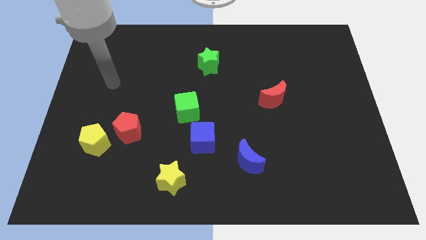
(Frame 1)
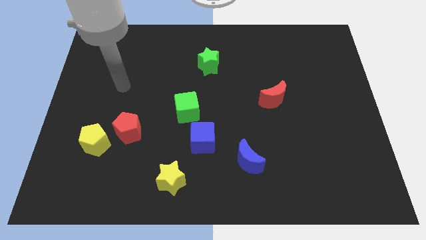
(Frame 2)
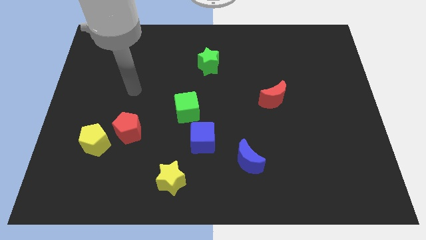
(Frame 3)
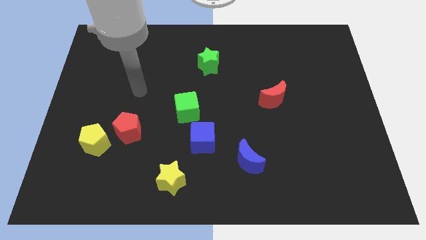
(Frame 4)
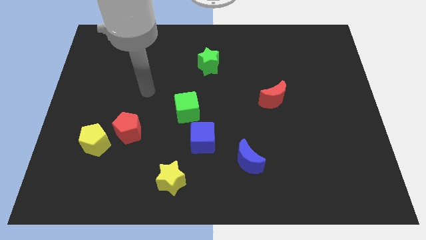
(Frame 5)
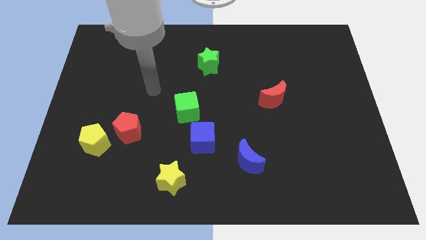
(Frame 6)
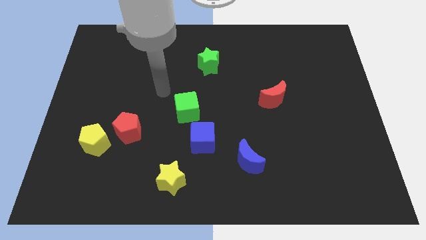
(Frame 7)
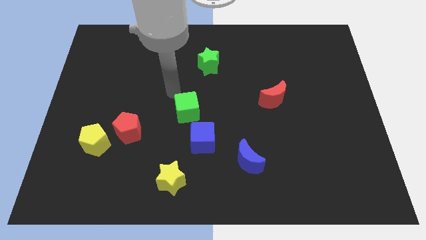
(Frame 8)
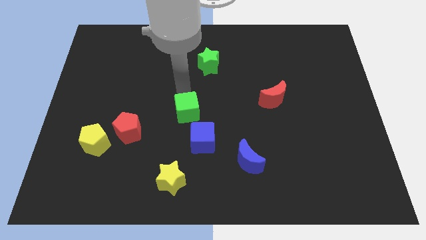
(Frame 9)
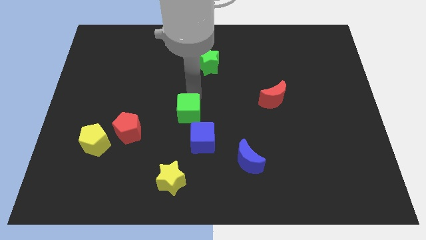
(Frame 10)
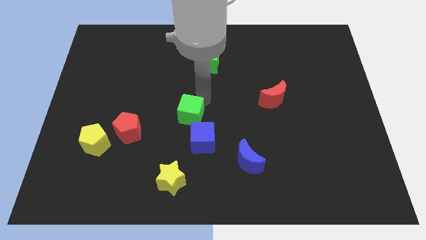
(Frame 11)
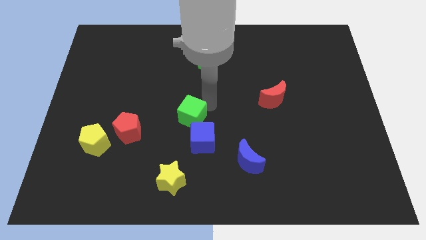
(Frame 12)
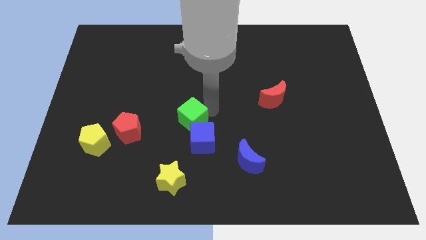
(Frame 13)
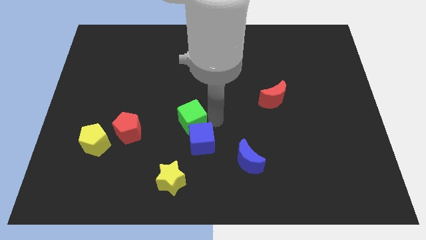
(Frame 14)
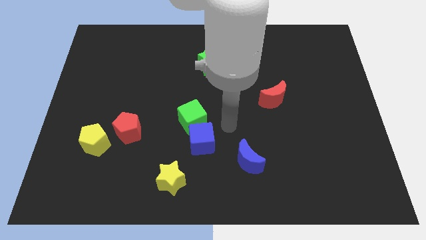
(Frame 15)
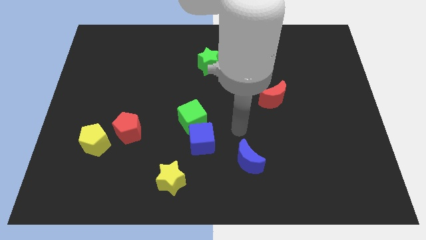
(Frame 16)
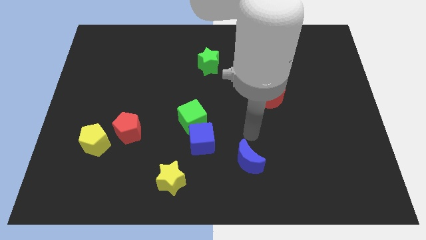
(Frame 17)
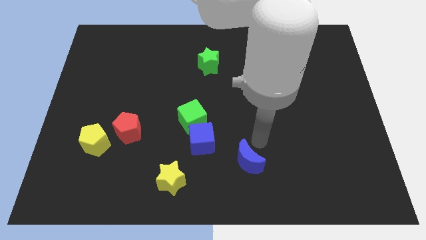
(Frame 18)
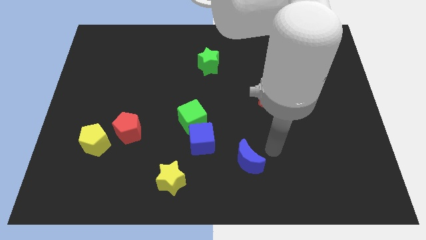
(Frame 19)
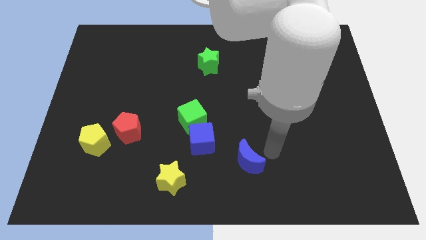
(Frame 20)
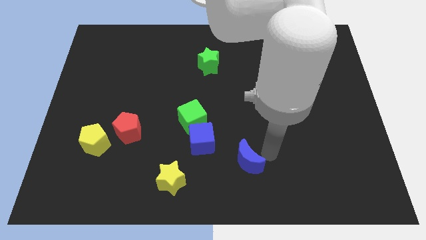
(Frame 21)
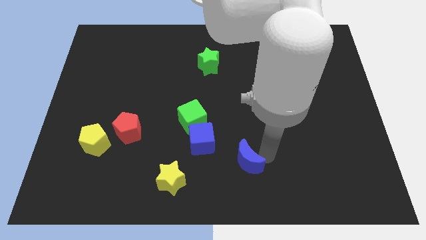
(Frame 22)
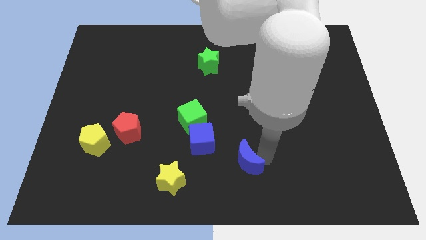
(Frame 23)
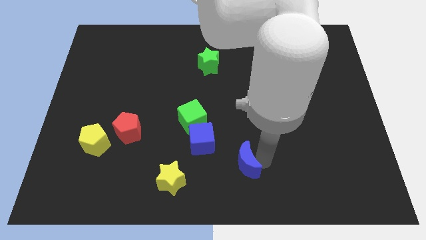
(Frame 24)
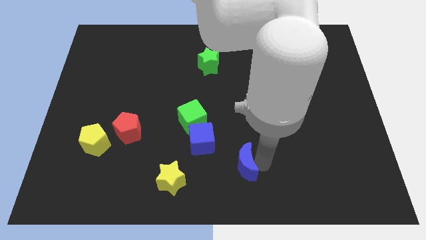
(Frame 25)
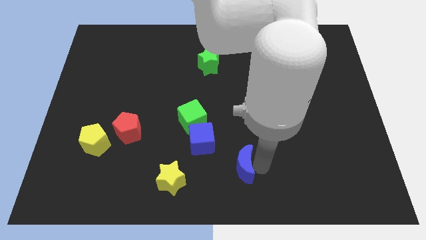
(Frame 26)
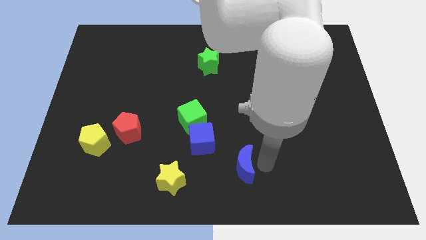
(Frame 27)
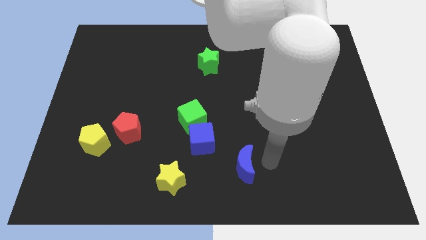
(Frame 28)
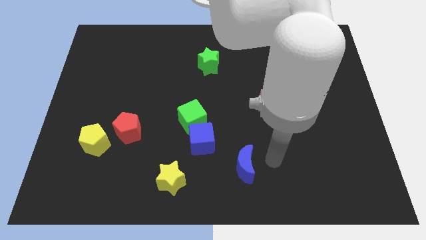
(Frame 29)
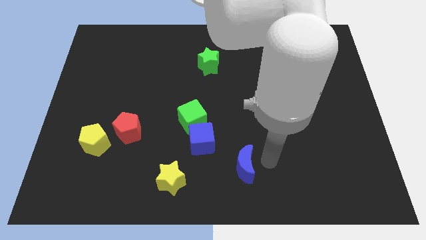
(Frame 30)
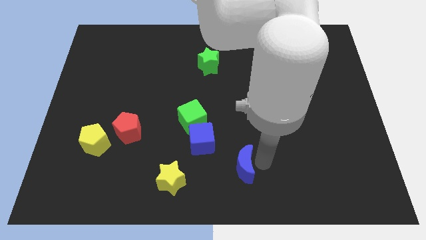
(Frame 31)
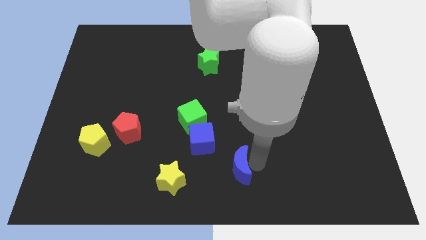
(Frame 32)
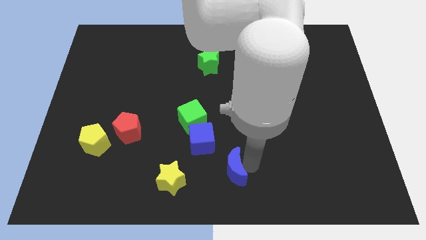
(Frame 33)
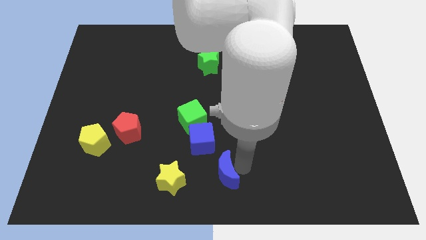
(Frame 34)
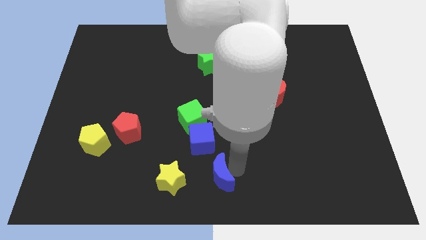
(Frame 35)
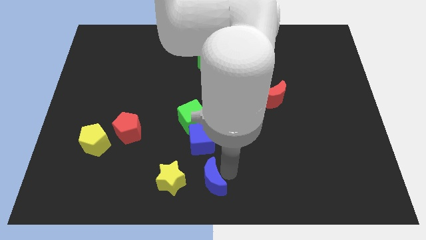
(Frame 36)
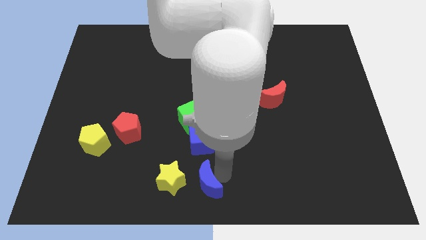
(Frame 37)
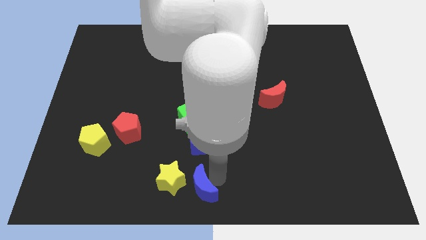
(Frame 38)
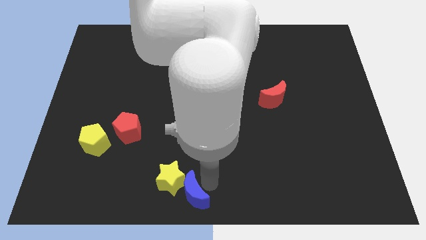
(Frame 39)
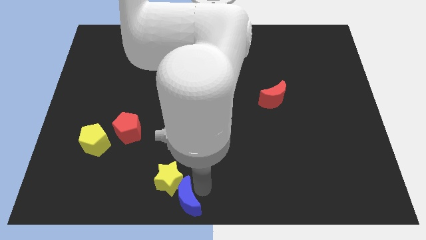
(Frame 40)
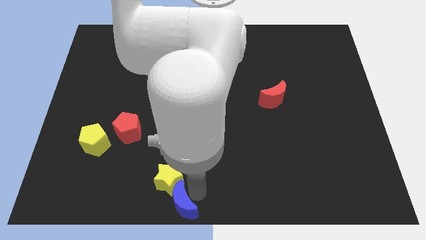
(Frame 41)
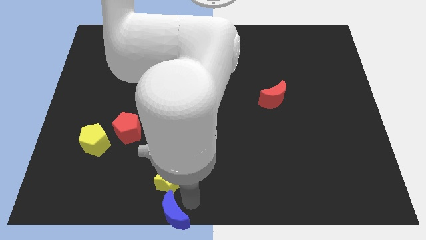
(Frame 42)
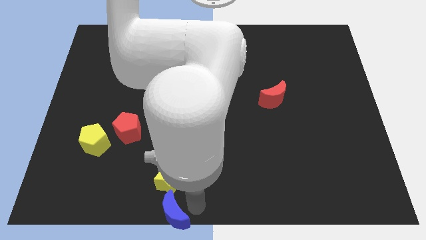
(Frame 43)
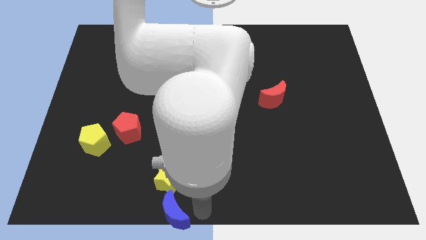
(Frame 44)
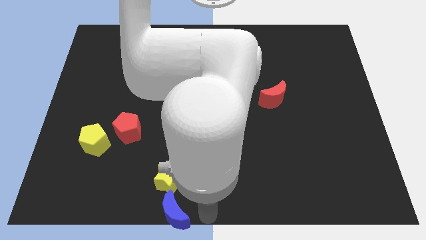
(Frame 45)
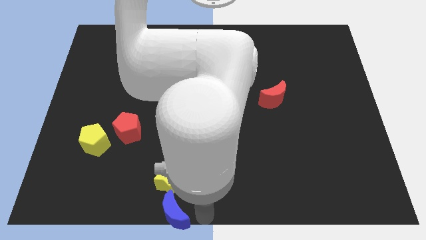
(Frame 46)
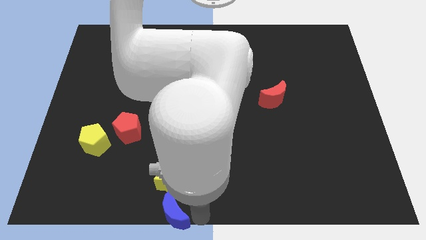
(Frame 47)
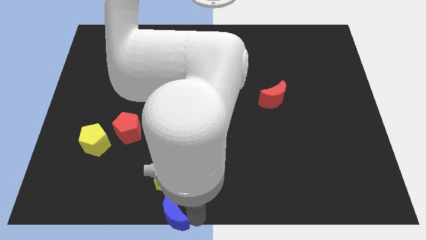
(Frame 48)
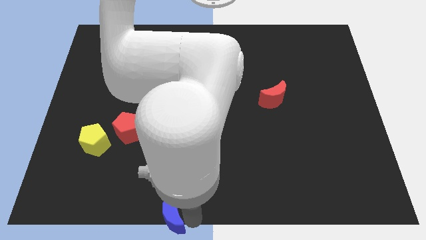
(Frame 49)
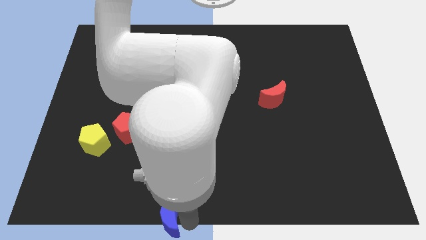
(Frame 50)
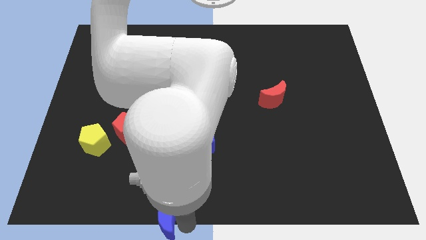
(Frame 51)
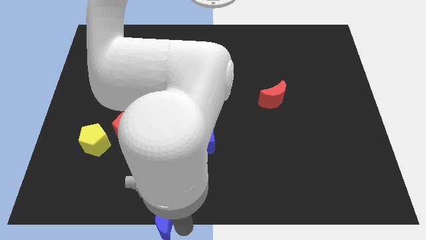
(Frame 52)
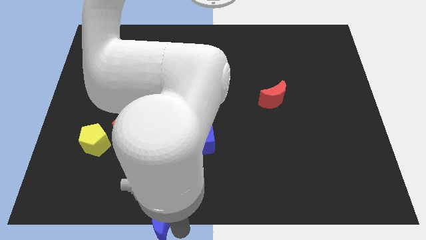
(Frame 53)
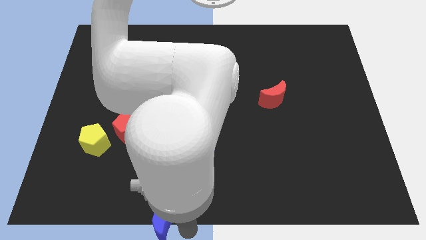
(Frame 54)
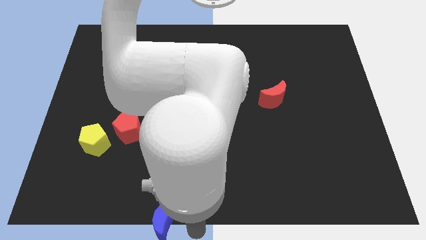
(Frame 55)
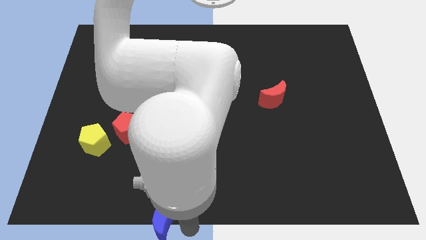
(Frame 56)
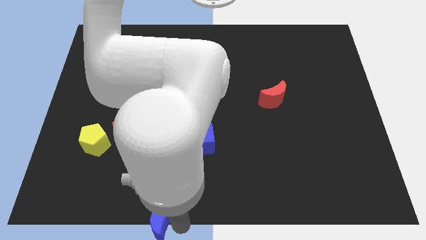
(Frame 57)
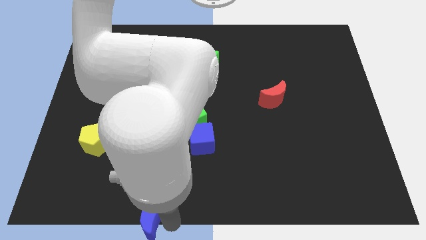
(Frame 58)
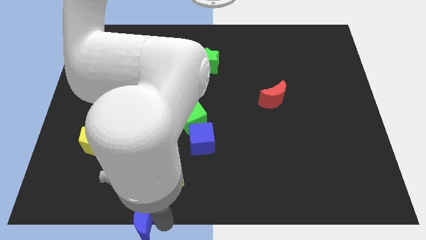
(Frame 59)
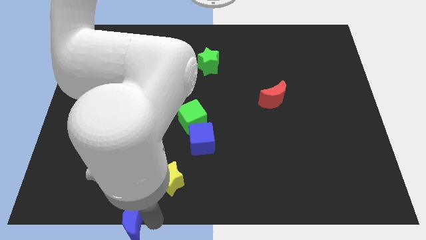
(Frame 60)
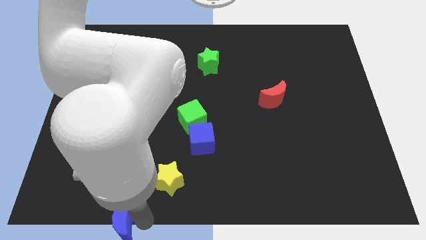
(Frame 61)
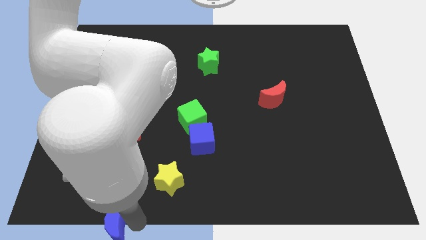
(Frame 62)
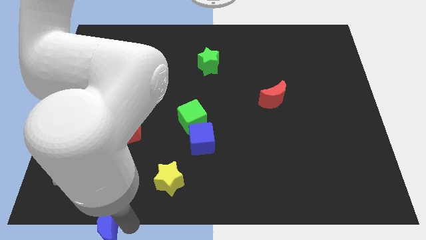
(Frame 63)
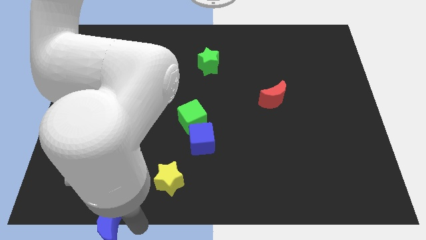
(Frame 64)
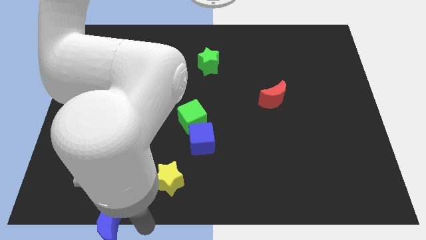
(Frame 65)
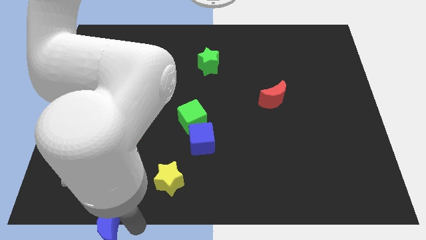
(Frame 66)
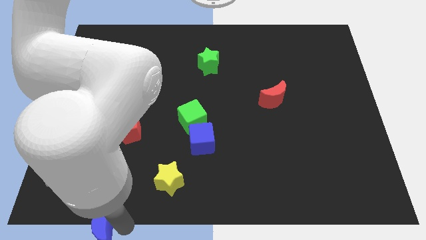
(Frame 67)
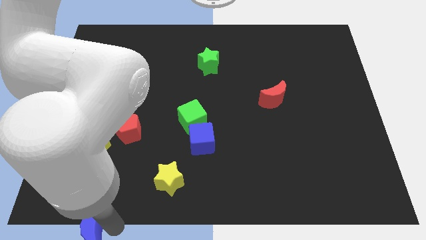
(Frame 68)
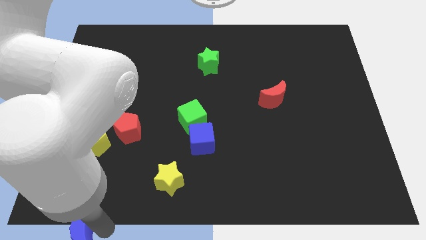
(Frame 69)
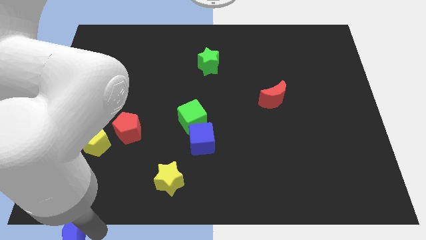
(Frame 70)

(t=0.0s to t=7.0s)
push the blue moon to the bottom left corner
